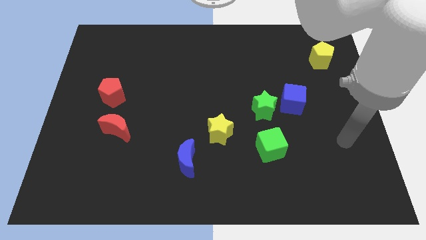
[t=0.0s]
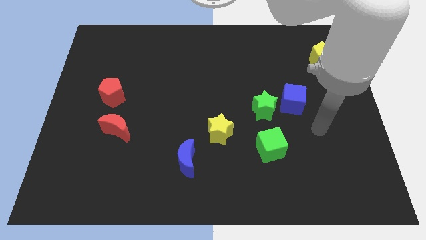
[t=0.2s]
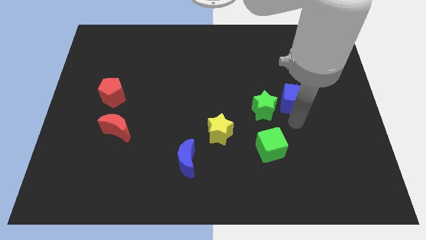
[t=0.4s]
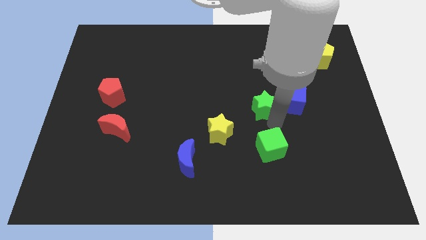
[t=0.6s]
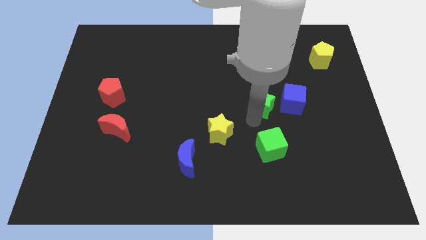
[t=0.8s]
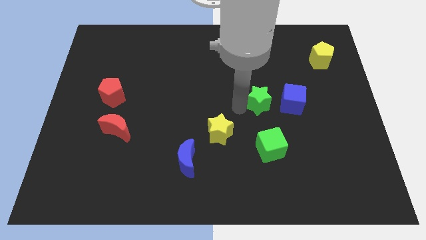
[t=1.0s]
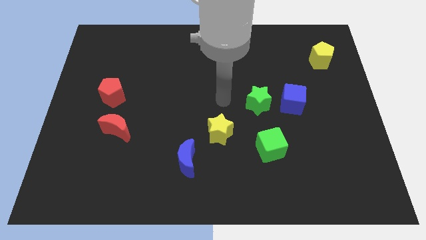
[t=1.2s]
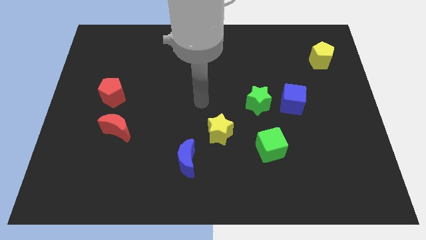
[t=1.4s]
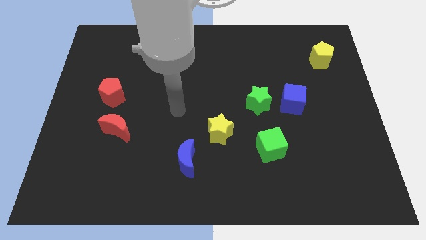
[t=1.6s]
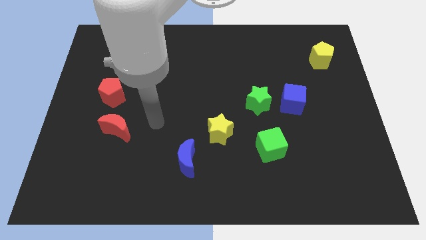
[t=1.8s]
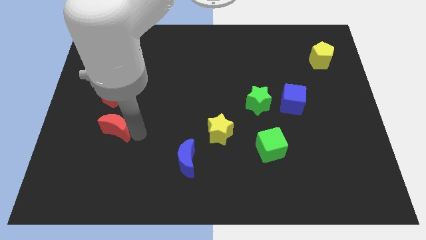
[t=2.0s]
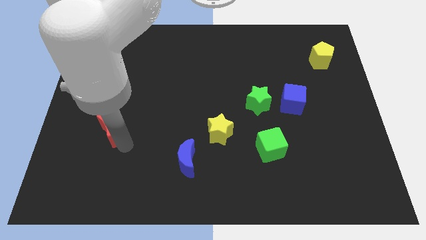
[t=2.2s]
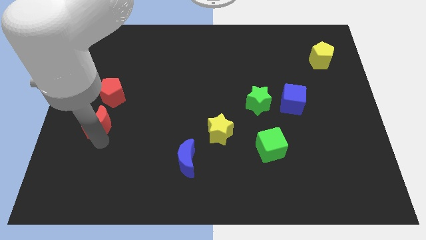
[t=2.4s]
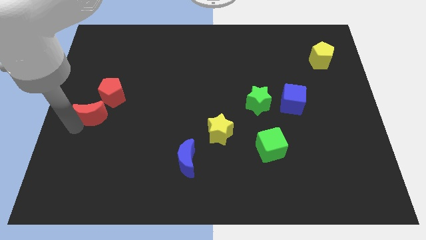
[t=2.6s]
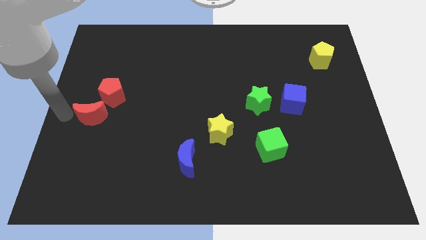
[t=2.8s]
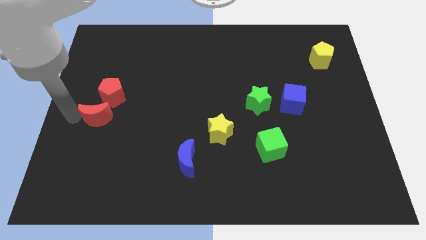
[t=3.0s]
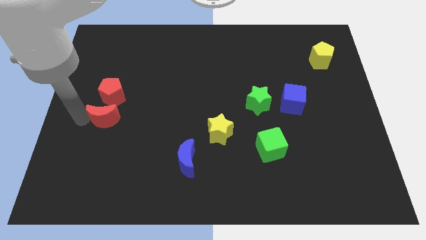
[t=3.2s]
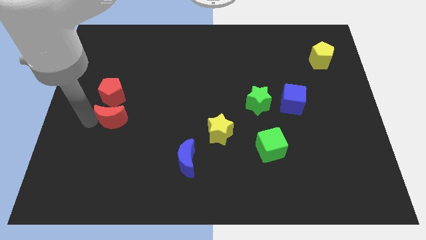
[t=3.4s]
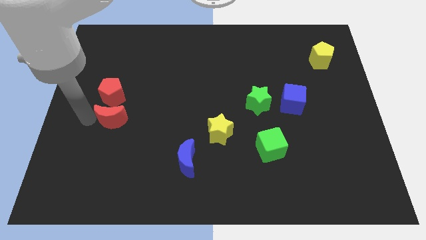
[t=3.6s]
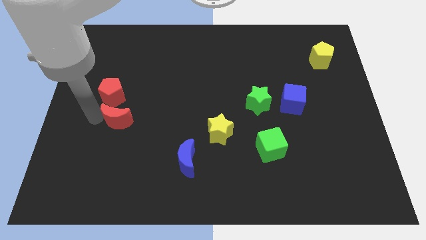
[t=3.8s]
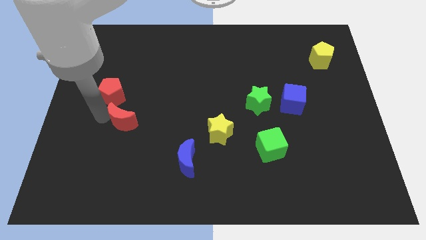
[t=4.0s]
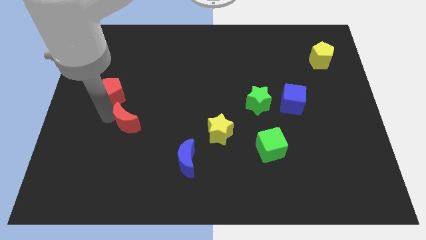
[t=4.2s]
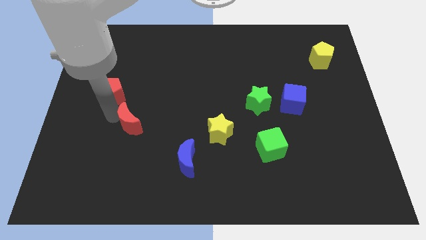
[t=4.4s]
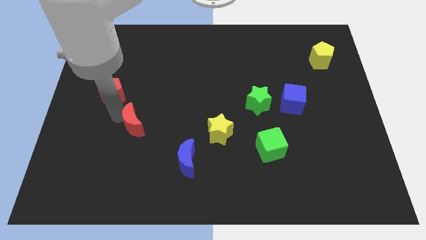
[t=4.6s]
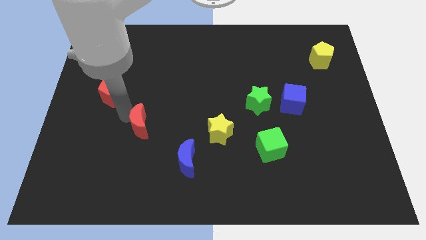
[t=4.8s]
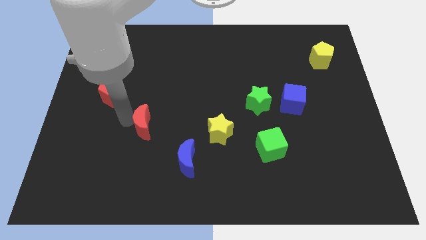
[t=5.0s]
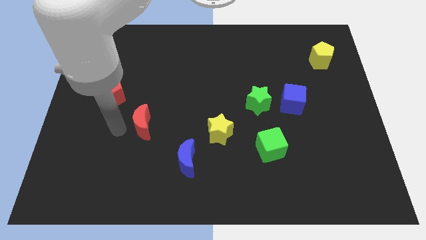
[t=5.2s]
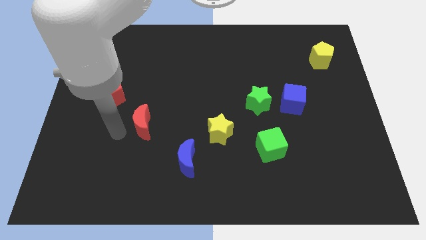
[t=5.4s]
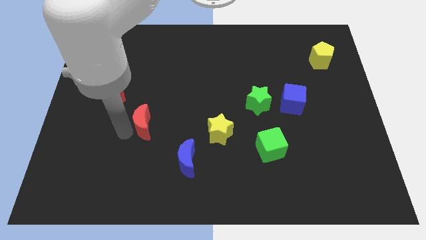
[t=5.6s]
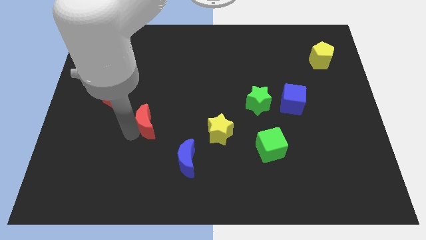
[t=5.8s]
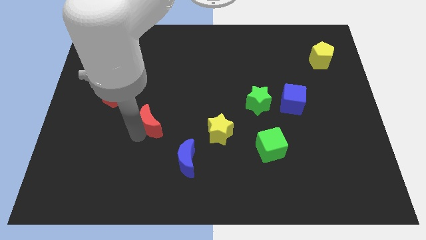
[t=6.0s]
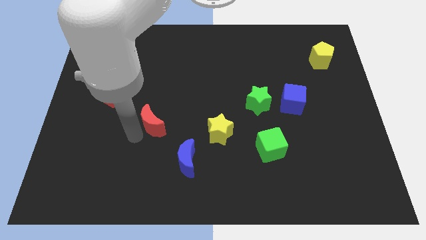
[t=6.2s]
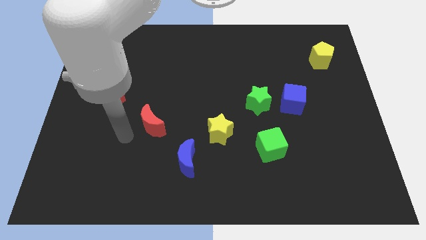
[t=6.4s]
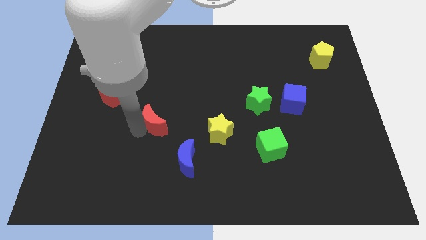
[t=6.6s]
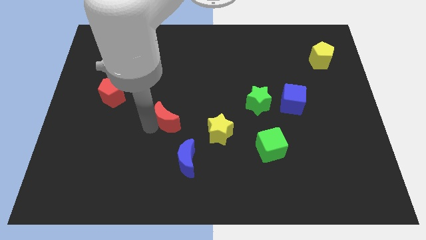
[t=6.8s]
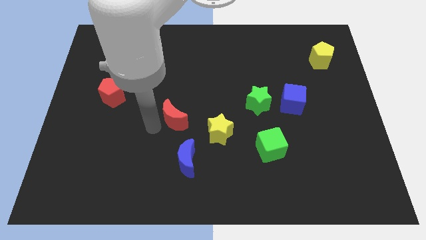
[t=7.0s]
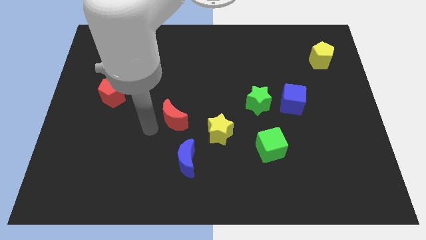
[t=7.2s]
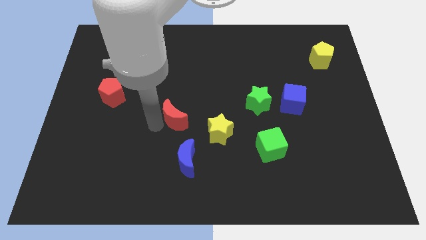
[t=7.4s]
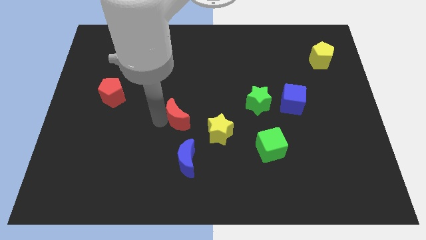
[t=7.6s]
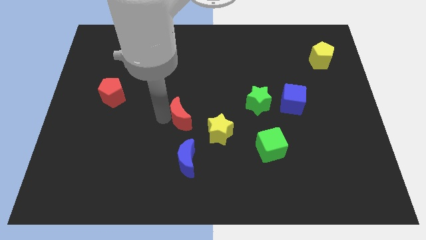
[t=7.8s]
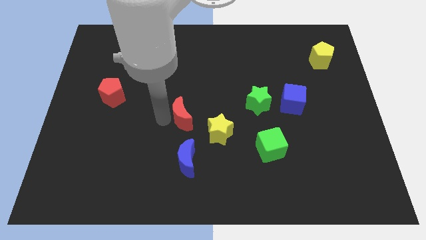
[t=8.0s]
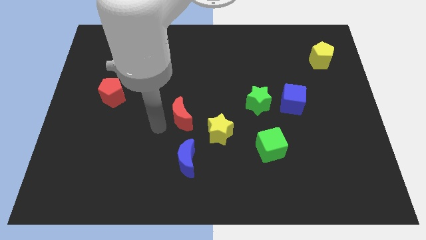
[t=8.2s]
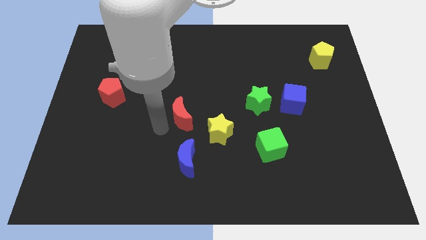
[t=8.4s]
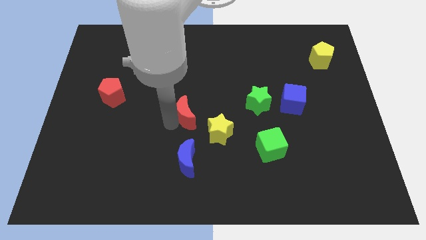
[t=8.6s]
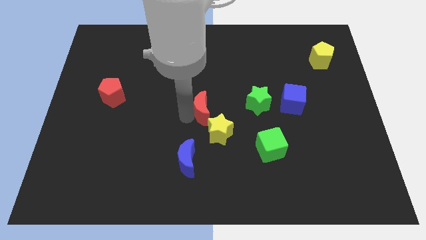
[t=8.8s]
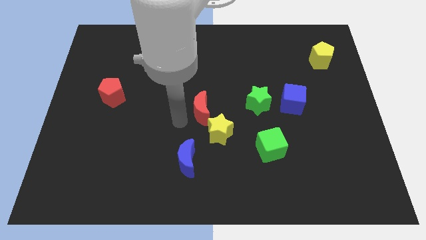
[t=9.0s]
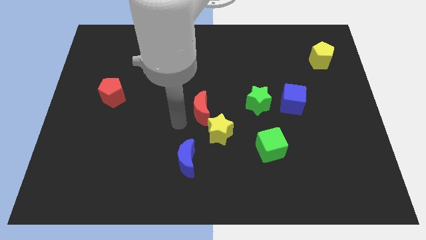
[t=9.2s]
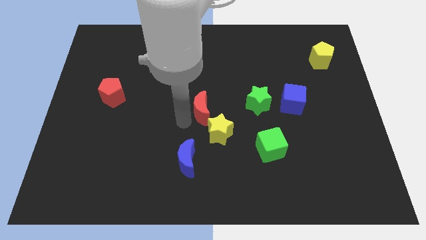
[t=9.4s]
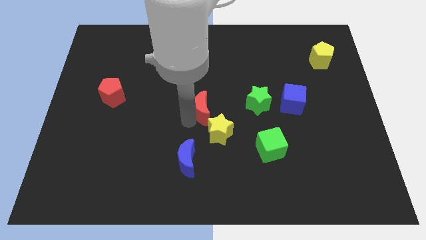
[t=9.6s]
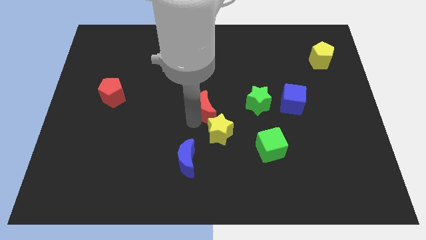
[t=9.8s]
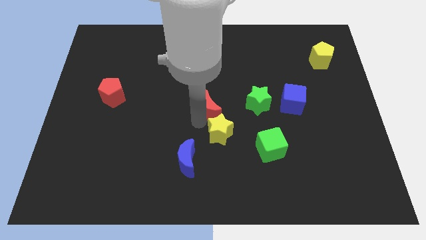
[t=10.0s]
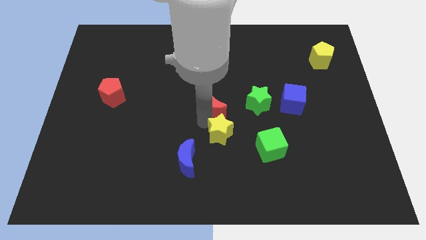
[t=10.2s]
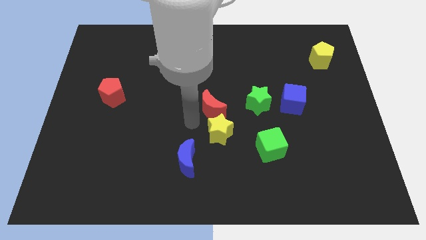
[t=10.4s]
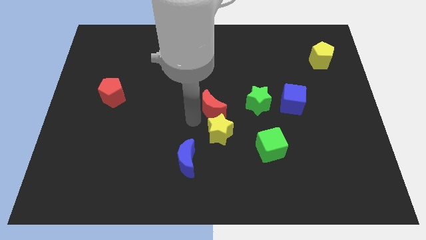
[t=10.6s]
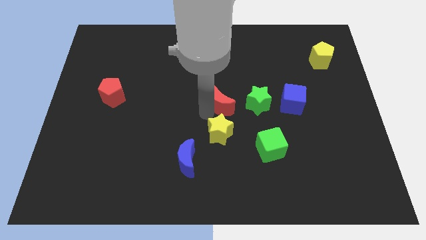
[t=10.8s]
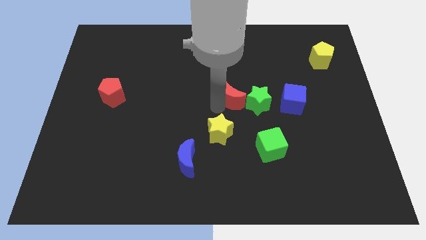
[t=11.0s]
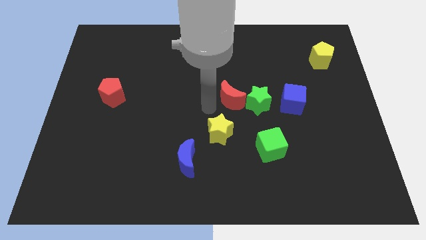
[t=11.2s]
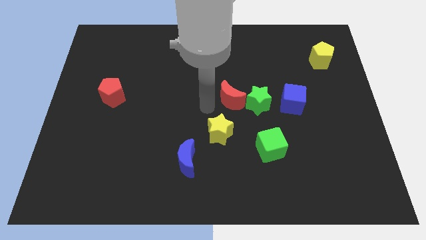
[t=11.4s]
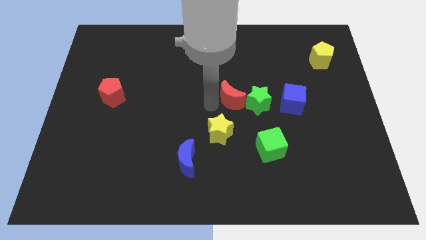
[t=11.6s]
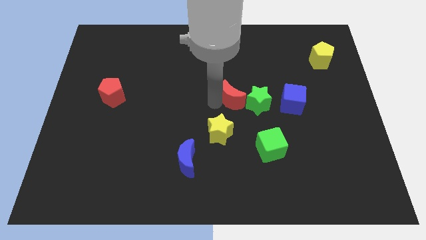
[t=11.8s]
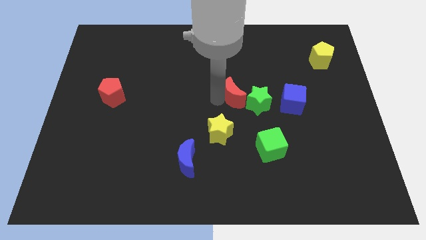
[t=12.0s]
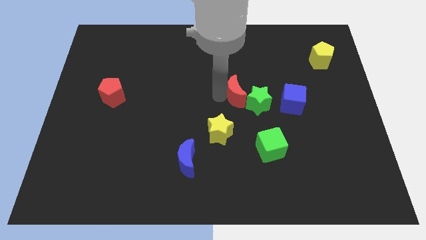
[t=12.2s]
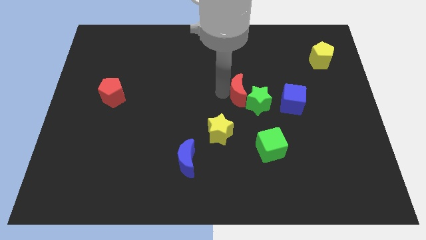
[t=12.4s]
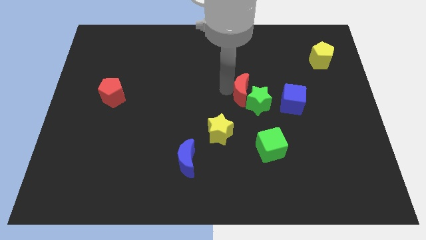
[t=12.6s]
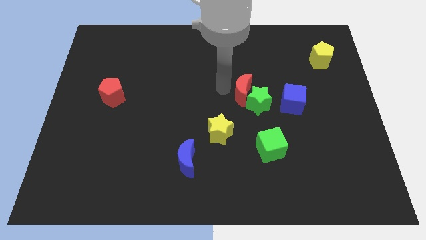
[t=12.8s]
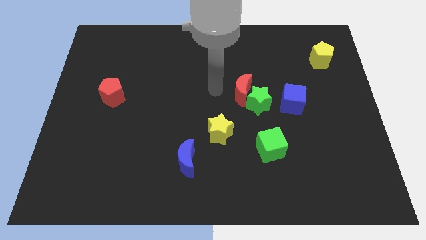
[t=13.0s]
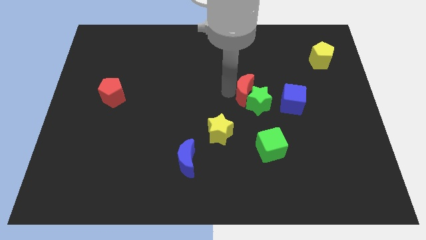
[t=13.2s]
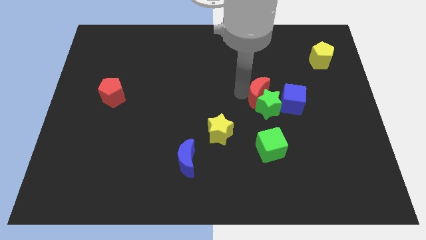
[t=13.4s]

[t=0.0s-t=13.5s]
push the red moon diagonally up and to the right of the green star
